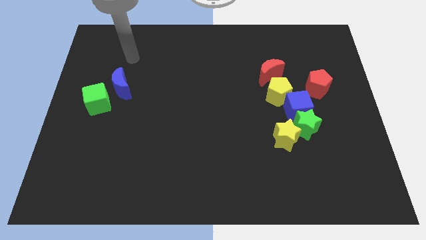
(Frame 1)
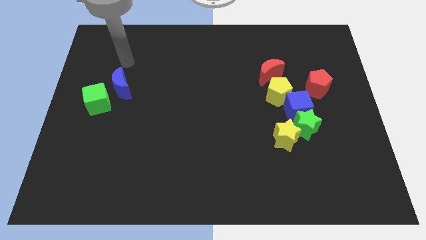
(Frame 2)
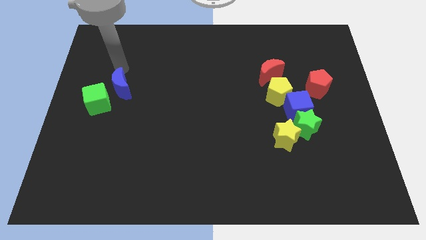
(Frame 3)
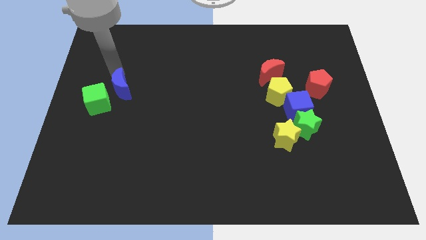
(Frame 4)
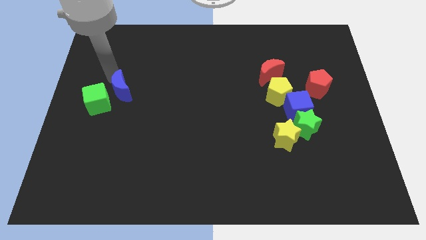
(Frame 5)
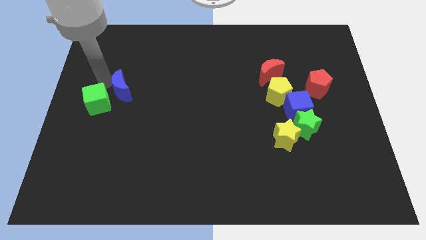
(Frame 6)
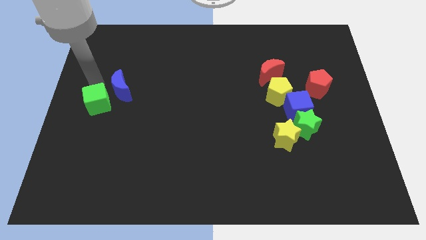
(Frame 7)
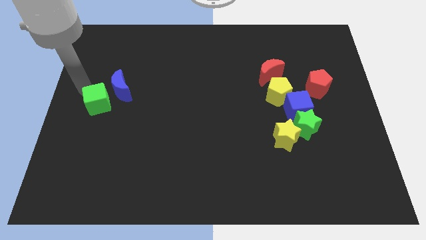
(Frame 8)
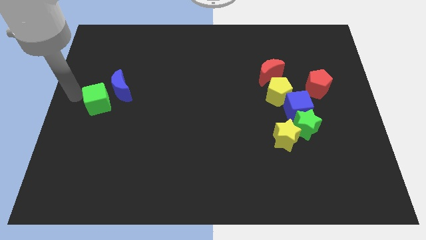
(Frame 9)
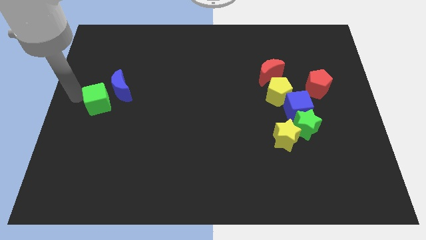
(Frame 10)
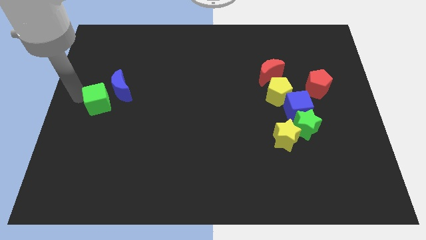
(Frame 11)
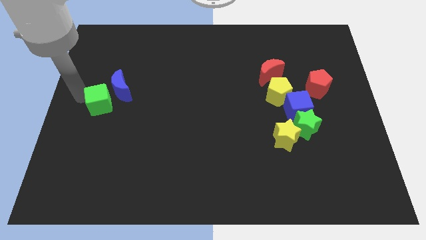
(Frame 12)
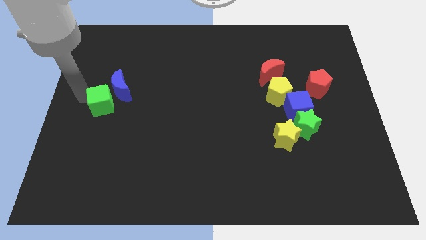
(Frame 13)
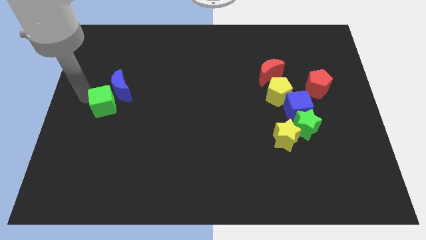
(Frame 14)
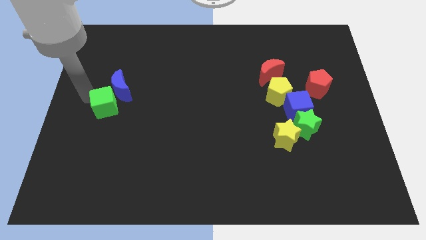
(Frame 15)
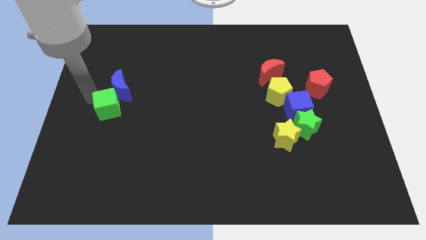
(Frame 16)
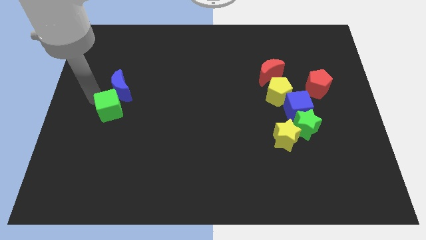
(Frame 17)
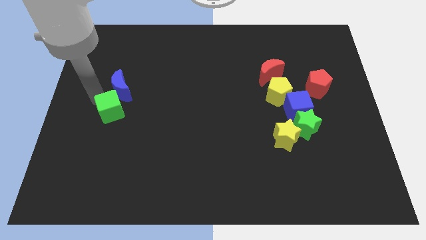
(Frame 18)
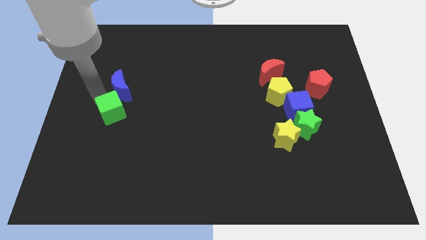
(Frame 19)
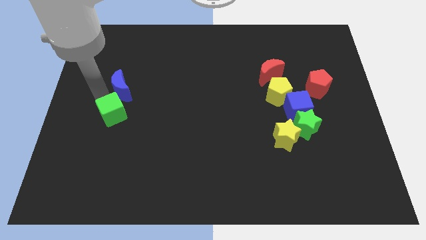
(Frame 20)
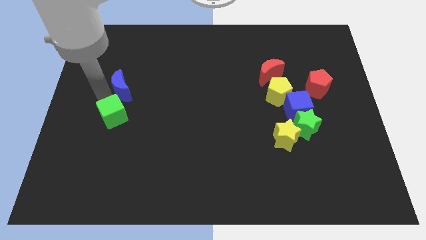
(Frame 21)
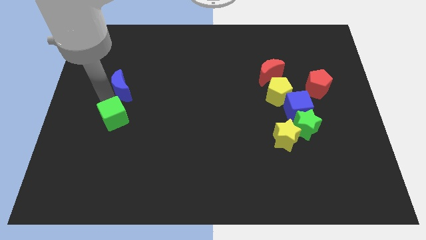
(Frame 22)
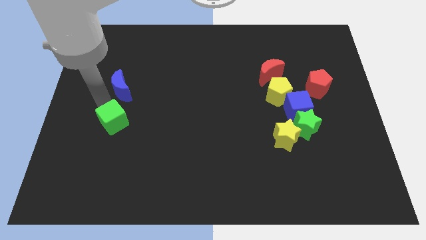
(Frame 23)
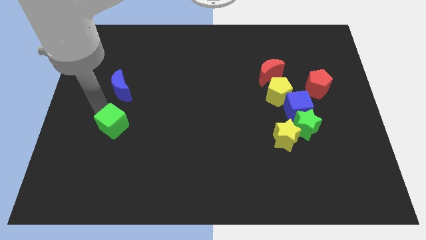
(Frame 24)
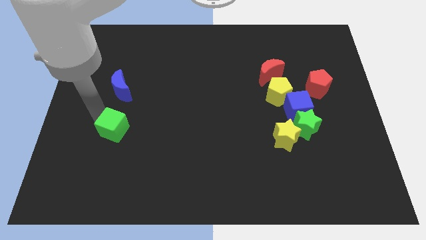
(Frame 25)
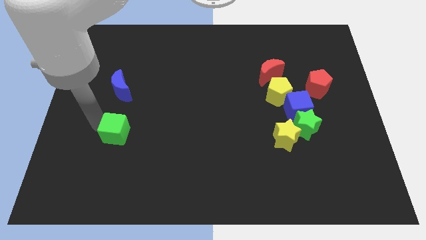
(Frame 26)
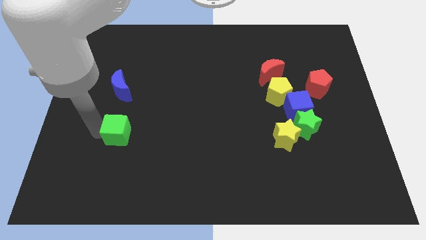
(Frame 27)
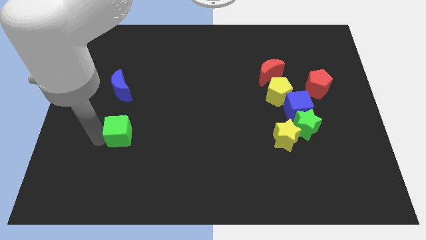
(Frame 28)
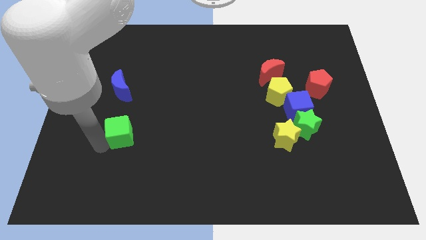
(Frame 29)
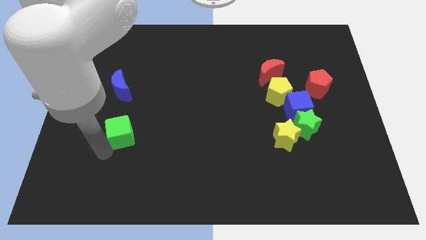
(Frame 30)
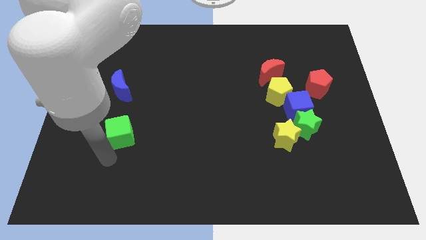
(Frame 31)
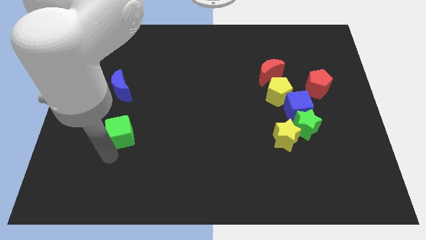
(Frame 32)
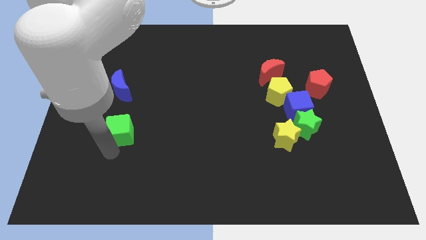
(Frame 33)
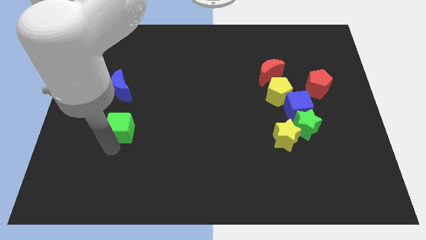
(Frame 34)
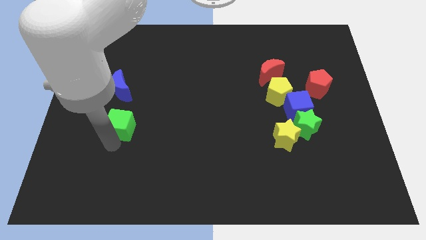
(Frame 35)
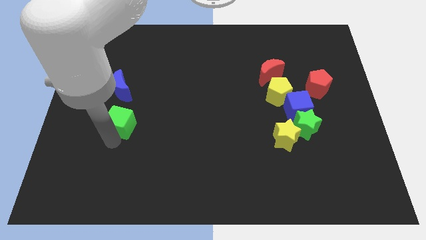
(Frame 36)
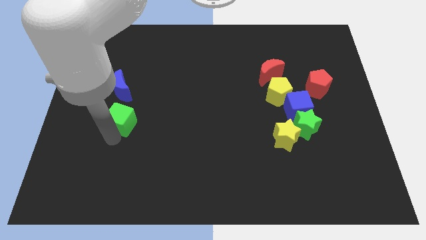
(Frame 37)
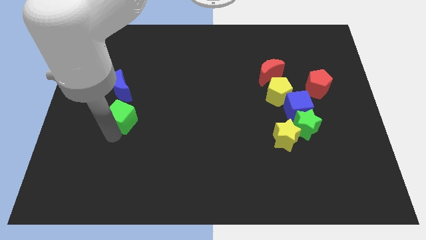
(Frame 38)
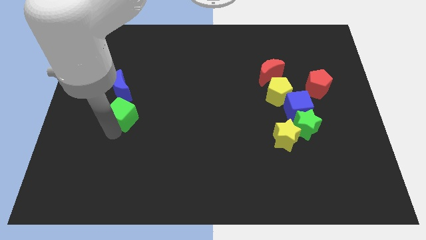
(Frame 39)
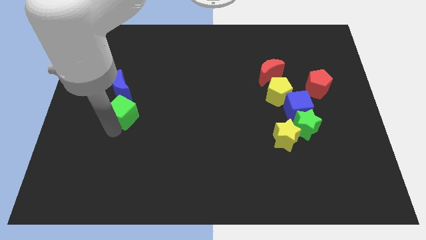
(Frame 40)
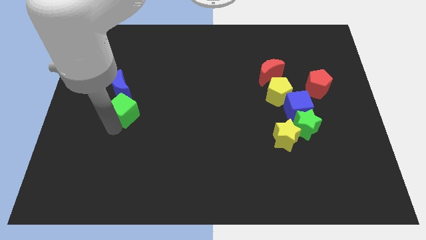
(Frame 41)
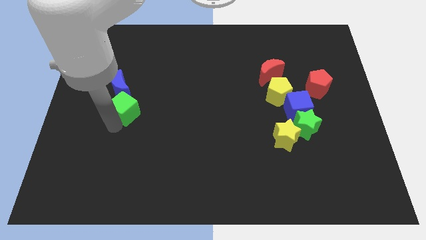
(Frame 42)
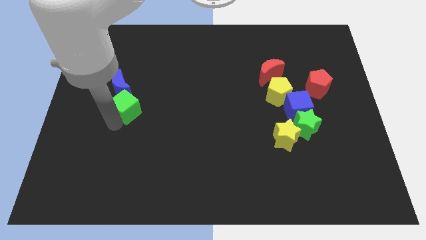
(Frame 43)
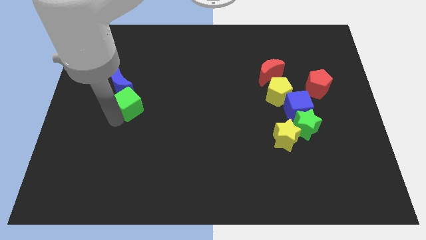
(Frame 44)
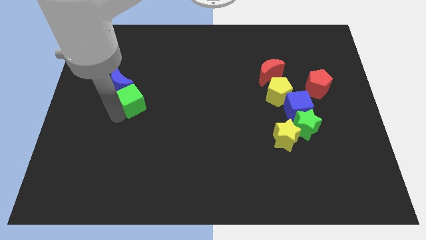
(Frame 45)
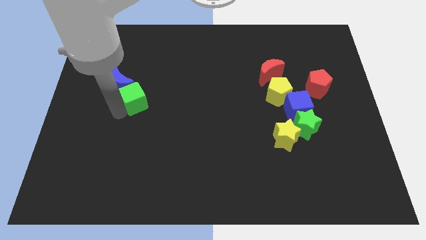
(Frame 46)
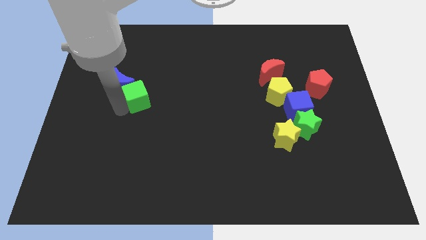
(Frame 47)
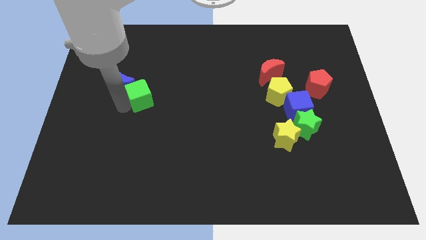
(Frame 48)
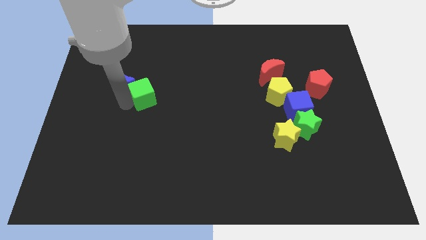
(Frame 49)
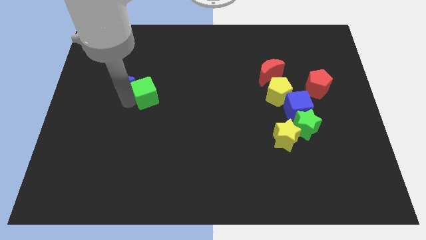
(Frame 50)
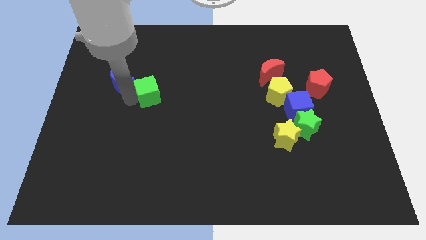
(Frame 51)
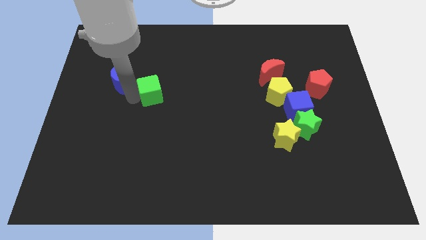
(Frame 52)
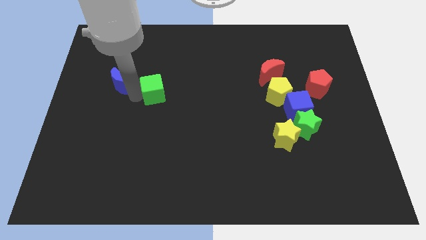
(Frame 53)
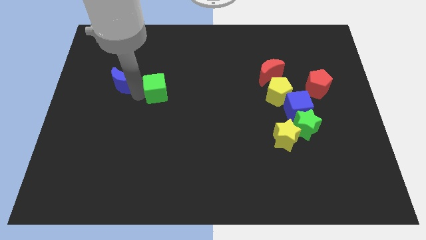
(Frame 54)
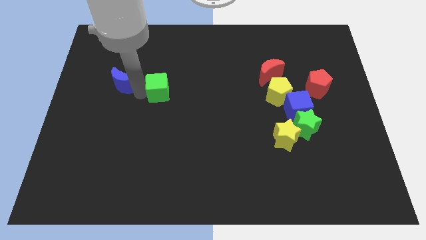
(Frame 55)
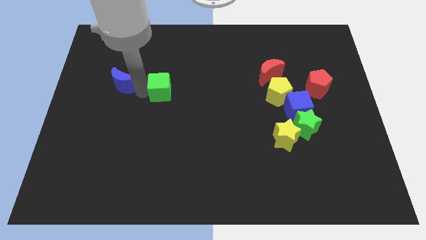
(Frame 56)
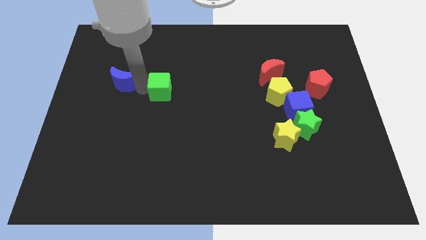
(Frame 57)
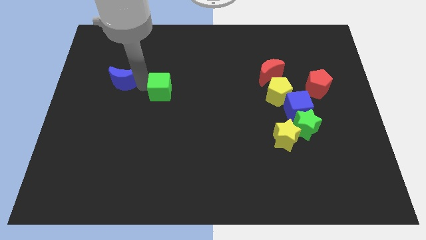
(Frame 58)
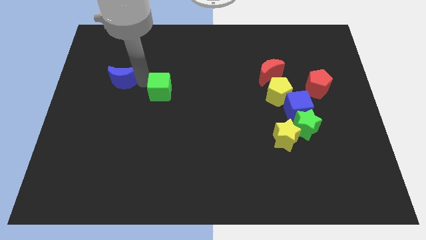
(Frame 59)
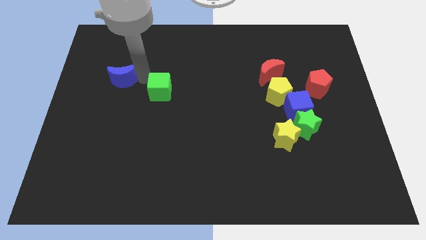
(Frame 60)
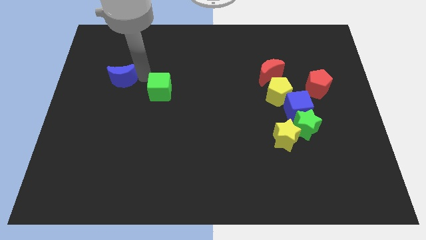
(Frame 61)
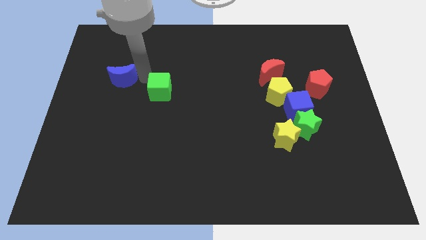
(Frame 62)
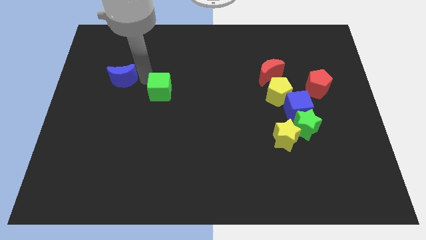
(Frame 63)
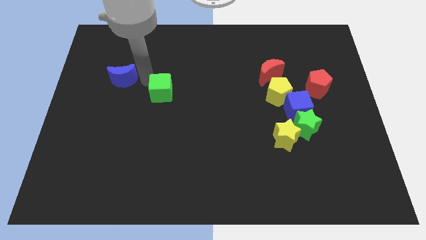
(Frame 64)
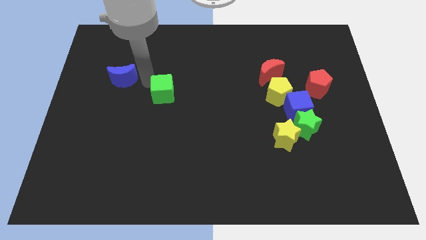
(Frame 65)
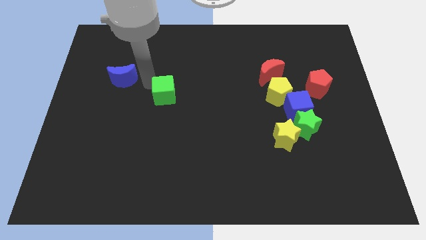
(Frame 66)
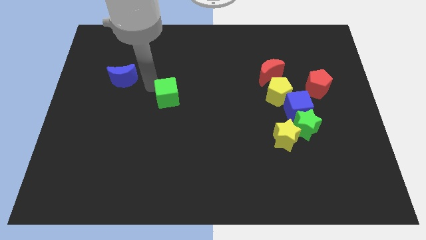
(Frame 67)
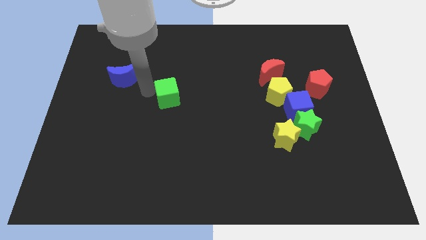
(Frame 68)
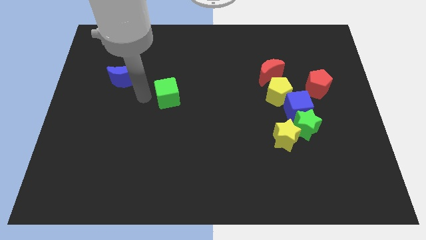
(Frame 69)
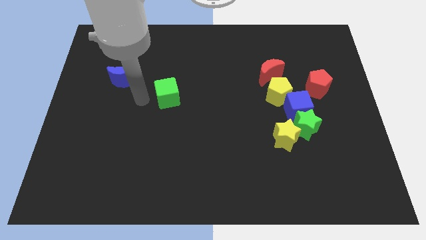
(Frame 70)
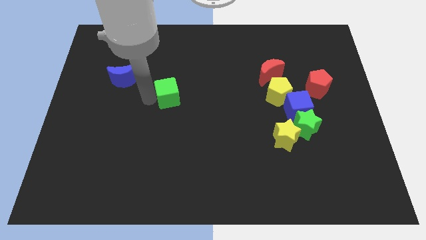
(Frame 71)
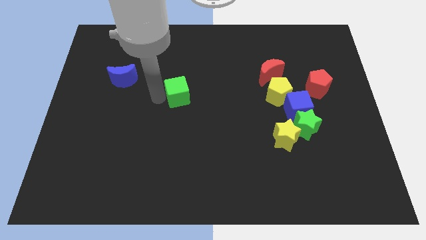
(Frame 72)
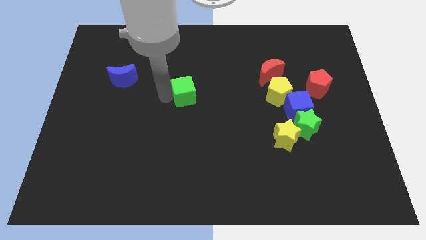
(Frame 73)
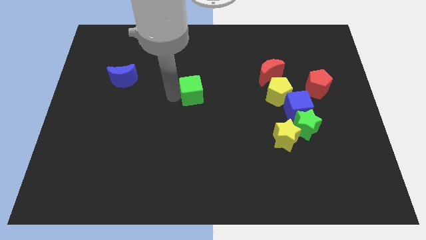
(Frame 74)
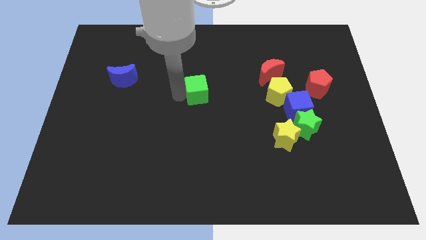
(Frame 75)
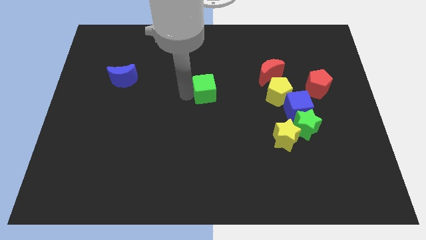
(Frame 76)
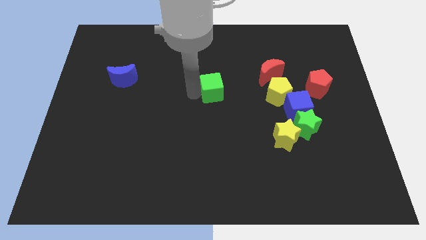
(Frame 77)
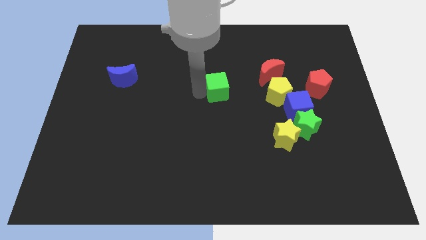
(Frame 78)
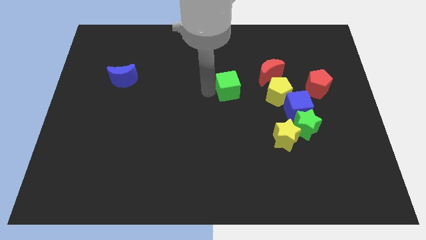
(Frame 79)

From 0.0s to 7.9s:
slide the green cube to the bottom left side of the red moon

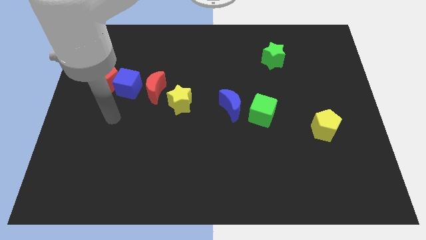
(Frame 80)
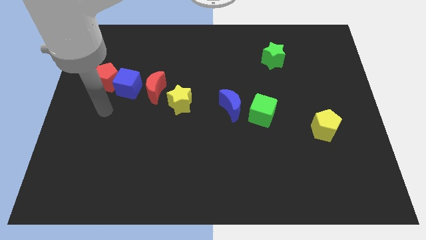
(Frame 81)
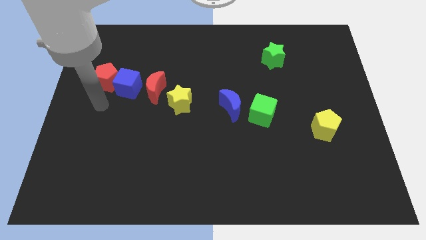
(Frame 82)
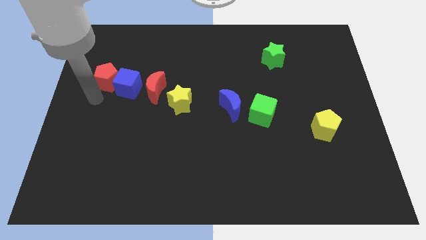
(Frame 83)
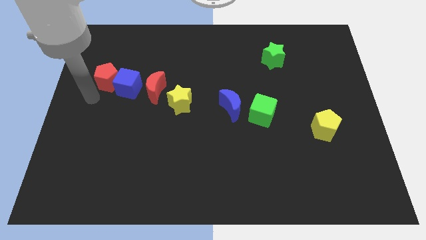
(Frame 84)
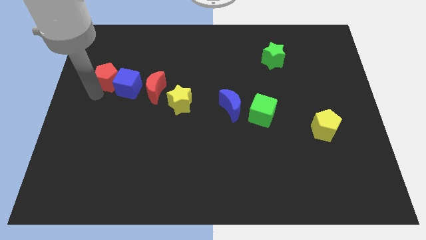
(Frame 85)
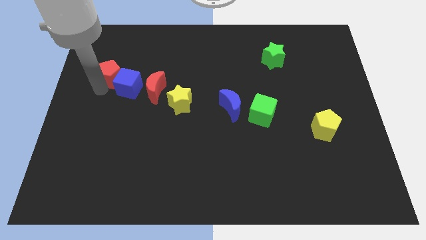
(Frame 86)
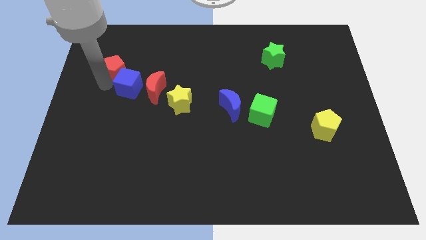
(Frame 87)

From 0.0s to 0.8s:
put the red pentagon to the top side of the blue cube
